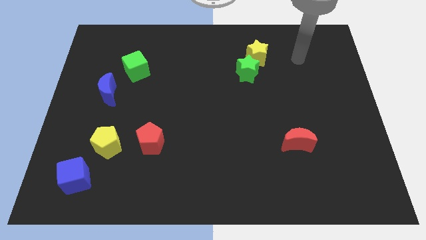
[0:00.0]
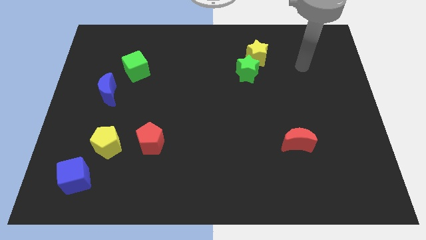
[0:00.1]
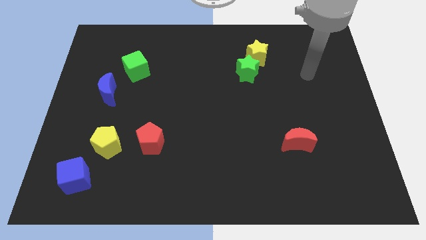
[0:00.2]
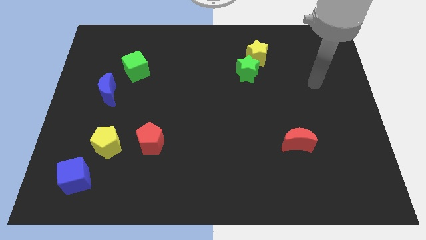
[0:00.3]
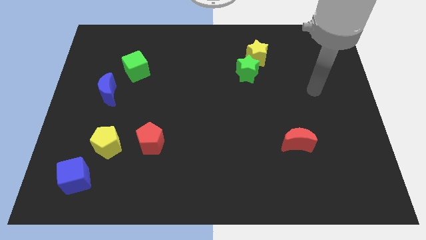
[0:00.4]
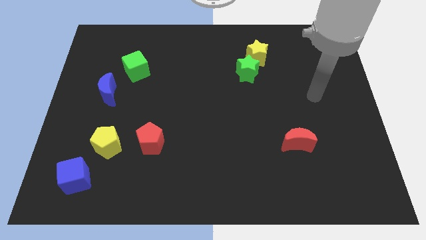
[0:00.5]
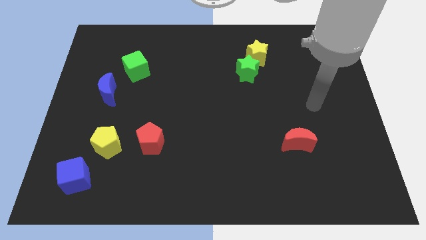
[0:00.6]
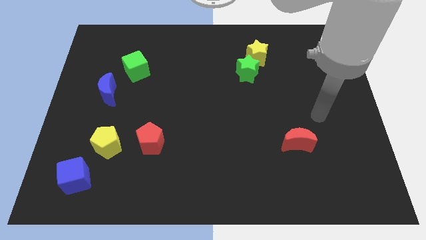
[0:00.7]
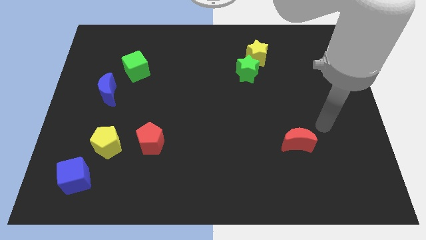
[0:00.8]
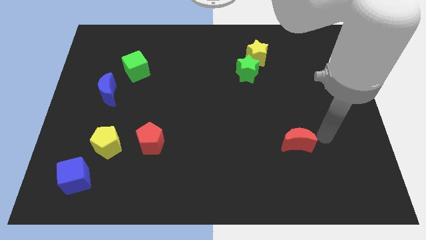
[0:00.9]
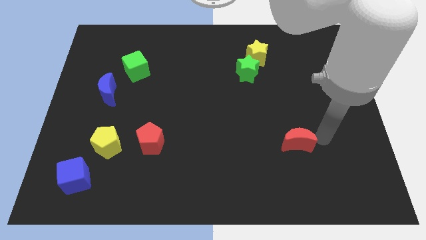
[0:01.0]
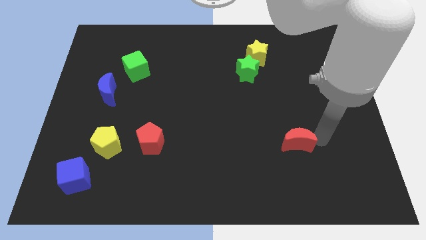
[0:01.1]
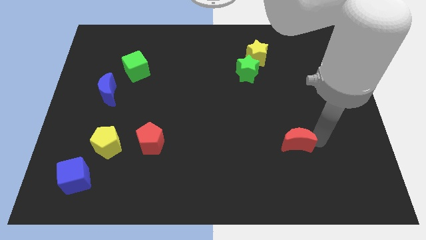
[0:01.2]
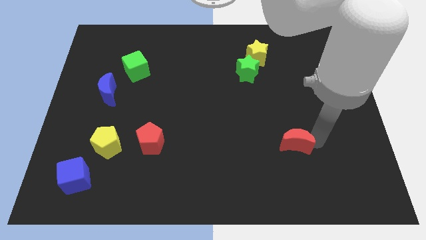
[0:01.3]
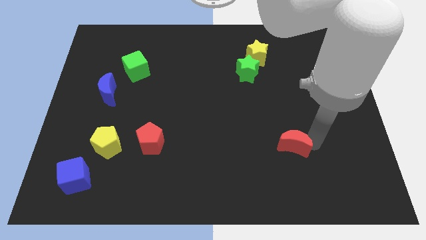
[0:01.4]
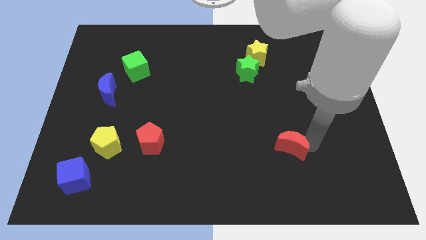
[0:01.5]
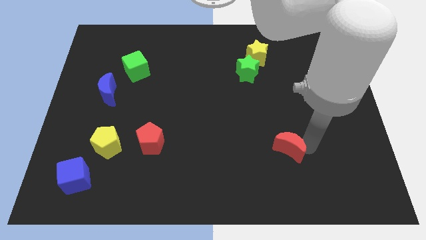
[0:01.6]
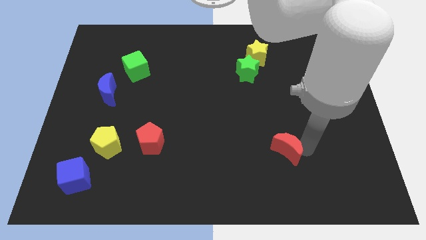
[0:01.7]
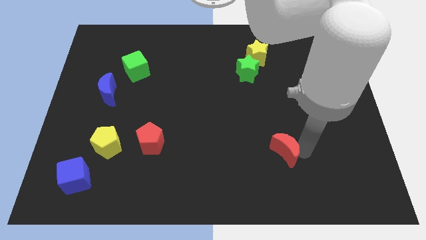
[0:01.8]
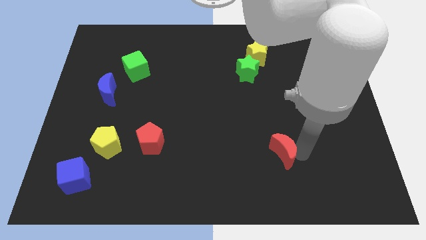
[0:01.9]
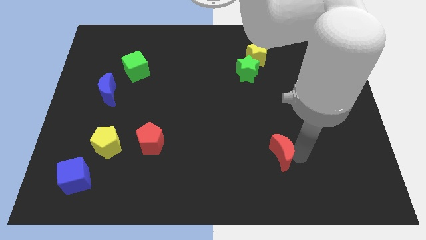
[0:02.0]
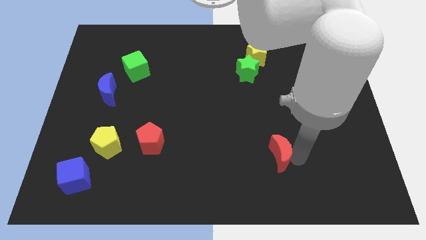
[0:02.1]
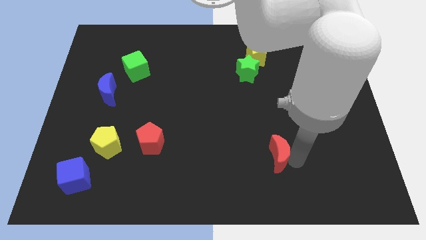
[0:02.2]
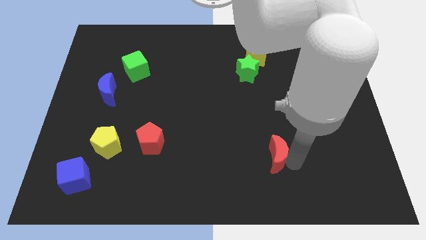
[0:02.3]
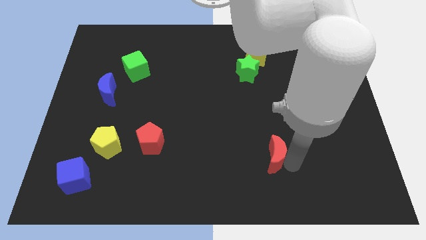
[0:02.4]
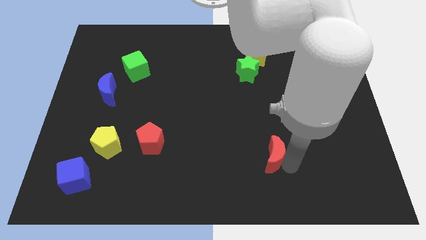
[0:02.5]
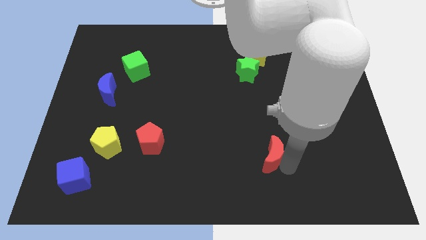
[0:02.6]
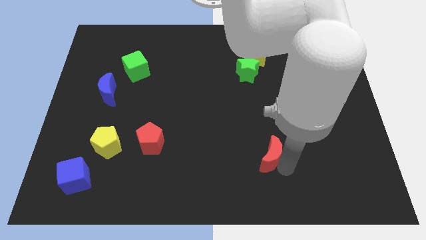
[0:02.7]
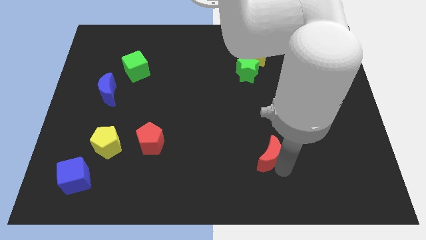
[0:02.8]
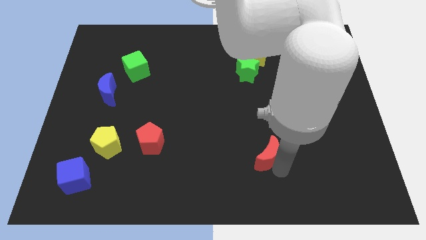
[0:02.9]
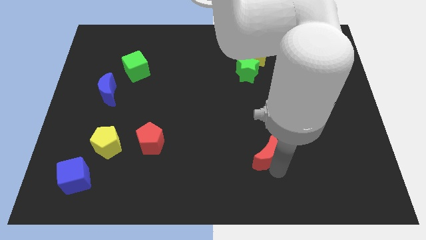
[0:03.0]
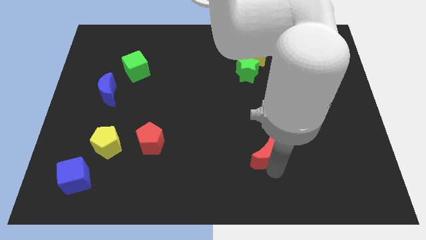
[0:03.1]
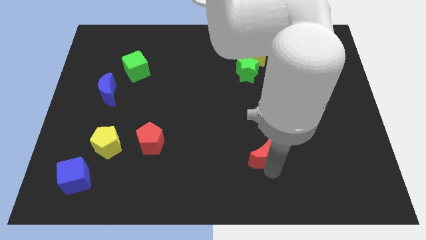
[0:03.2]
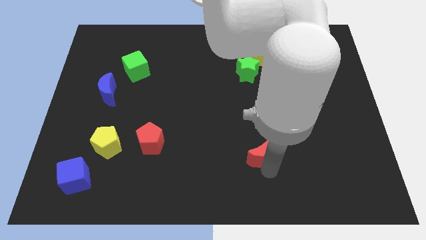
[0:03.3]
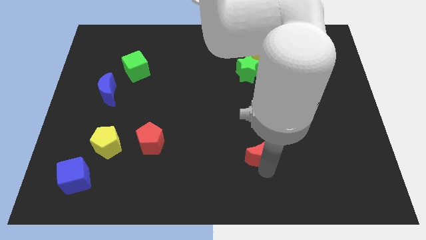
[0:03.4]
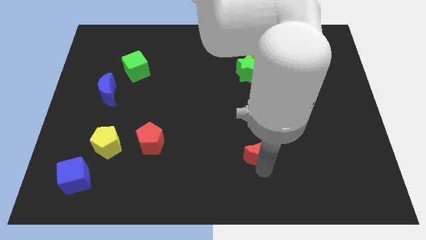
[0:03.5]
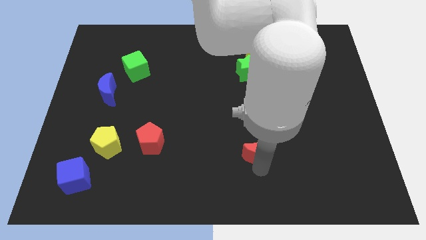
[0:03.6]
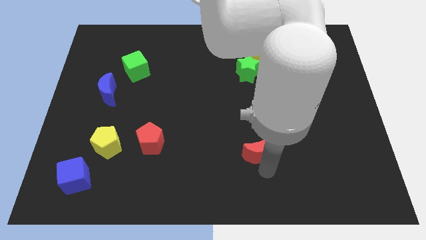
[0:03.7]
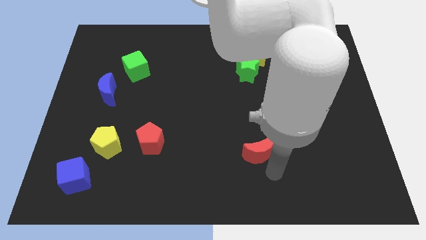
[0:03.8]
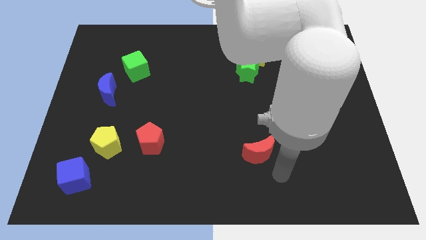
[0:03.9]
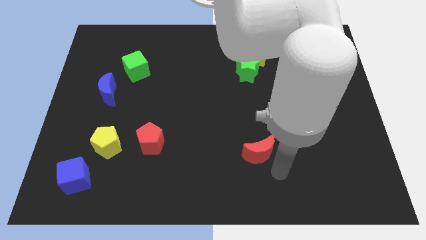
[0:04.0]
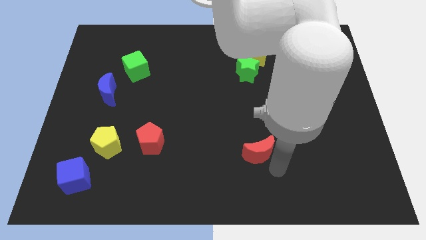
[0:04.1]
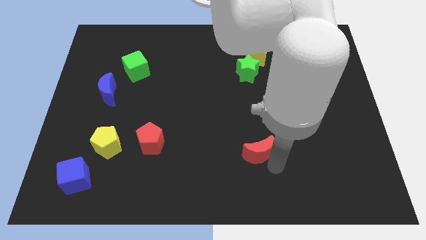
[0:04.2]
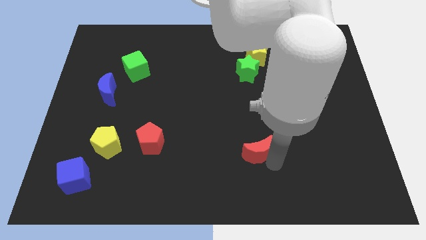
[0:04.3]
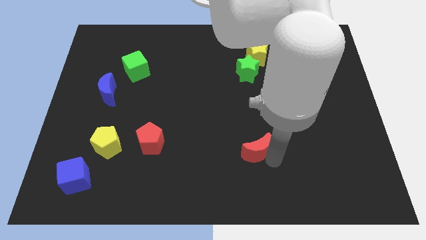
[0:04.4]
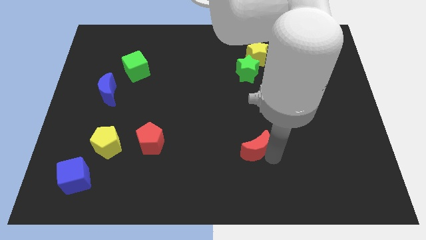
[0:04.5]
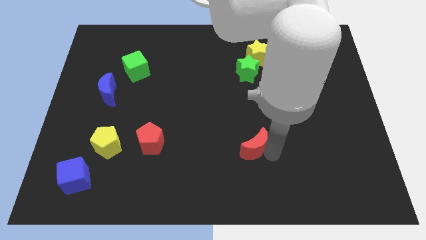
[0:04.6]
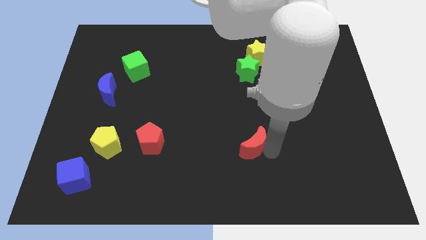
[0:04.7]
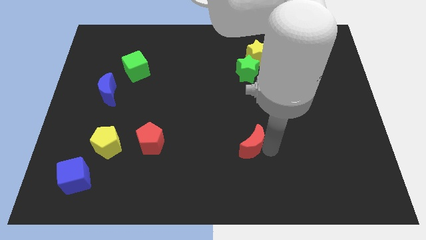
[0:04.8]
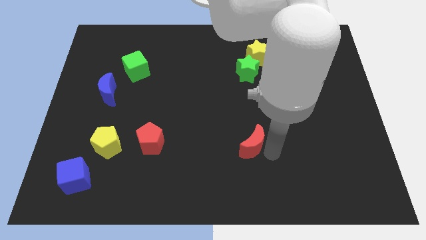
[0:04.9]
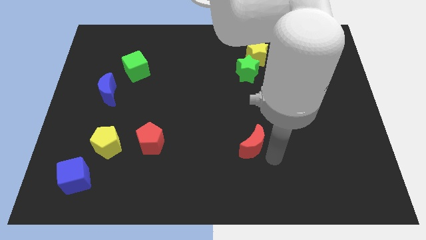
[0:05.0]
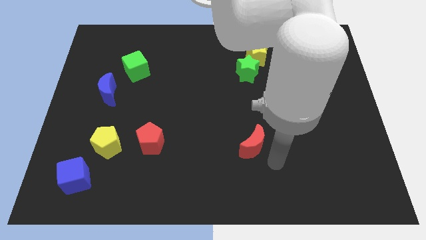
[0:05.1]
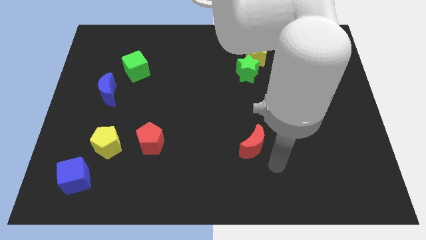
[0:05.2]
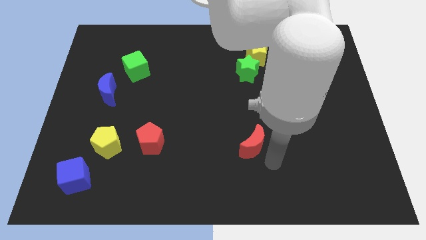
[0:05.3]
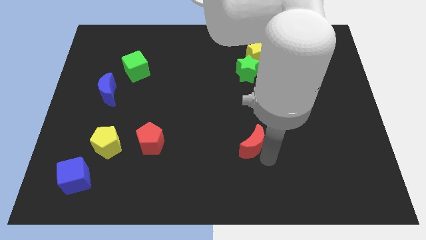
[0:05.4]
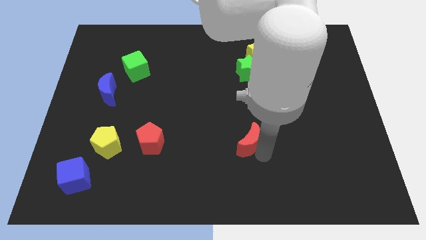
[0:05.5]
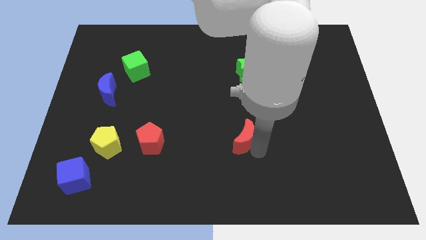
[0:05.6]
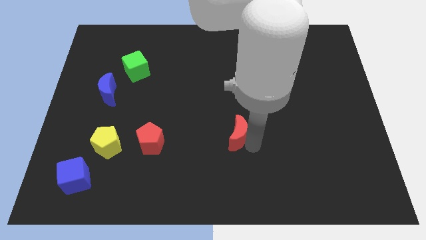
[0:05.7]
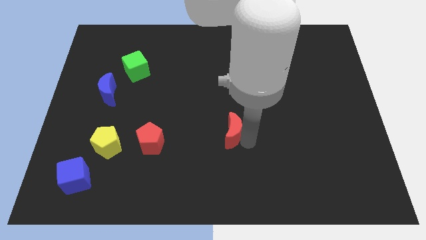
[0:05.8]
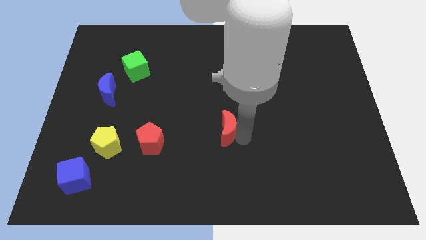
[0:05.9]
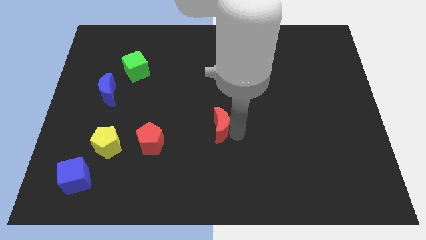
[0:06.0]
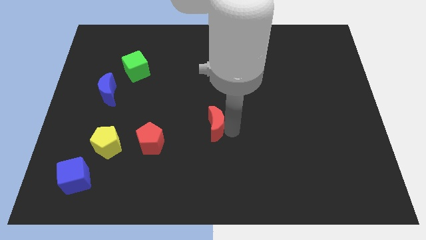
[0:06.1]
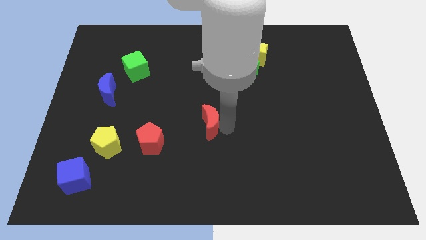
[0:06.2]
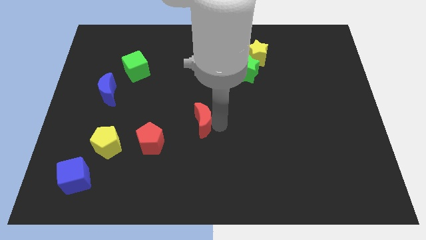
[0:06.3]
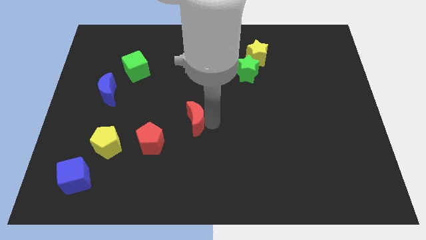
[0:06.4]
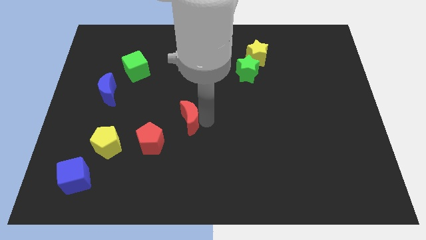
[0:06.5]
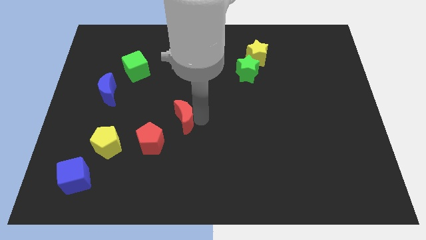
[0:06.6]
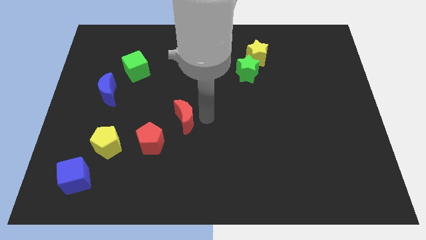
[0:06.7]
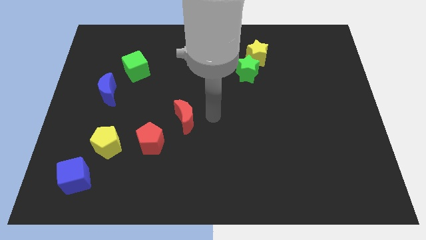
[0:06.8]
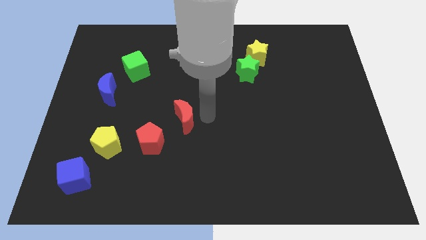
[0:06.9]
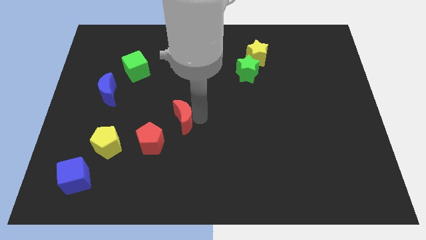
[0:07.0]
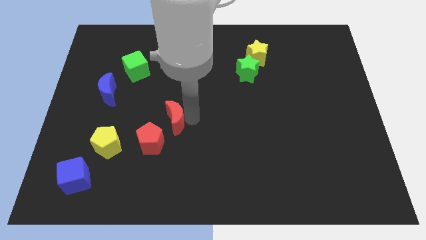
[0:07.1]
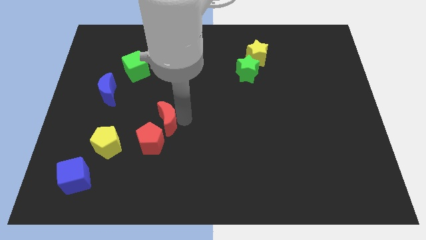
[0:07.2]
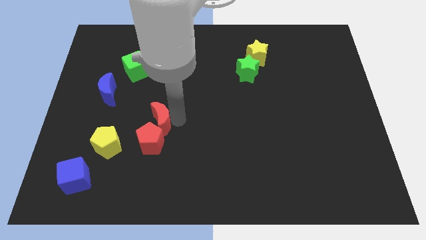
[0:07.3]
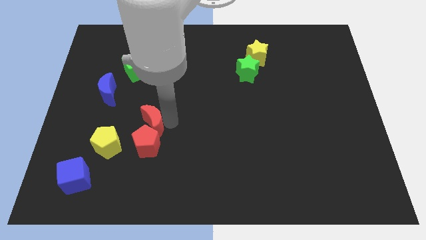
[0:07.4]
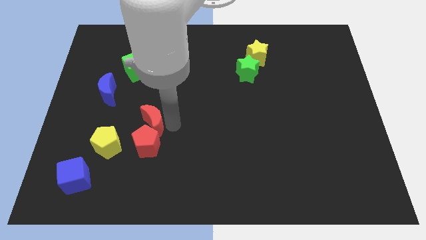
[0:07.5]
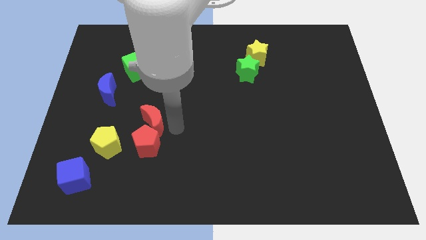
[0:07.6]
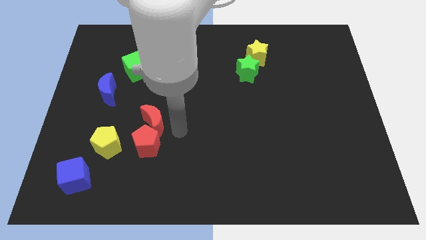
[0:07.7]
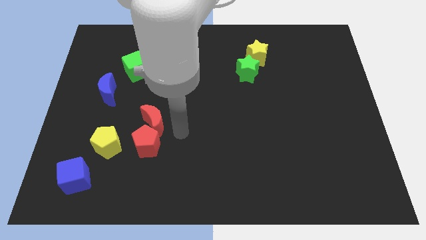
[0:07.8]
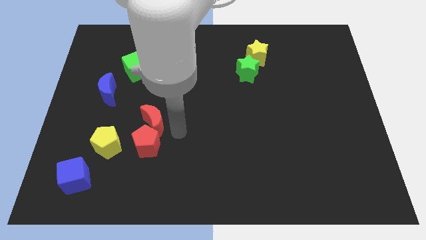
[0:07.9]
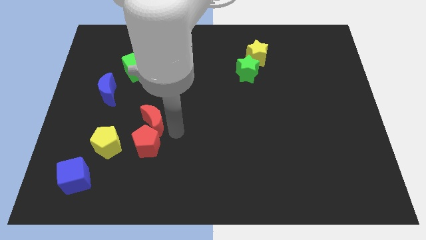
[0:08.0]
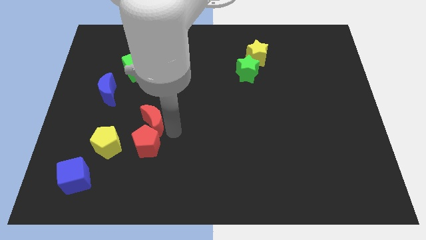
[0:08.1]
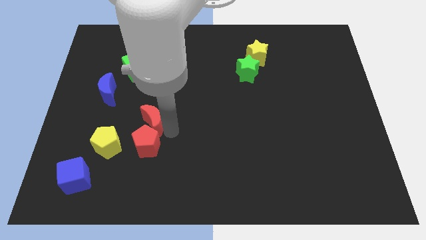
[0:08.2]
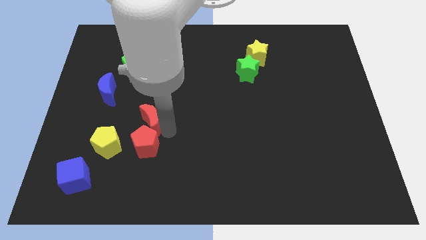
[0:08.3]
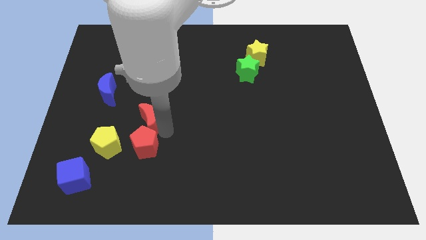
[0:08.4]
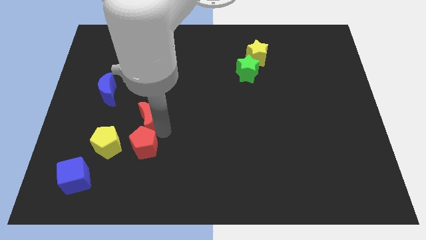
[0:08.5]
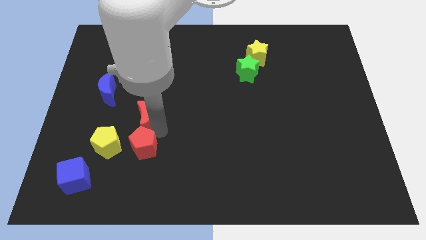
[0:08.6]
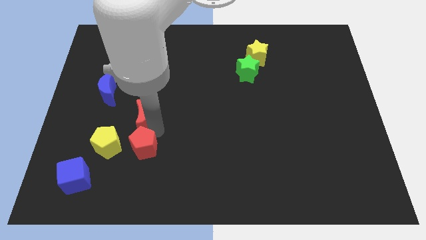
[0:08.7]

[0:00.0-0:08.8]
move the red moon to the bottom right of the blue moon
